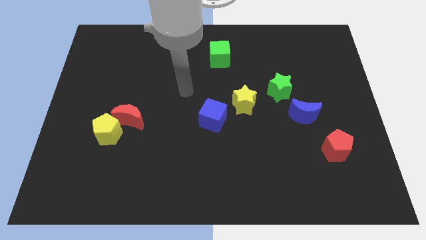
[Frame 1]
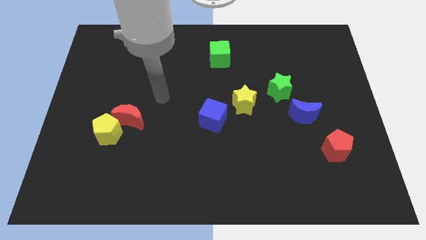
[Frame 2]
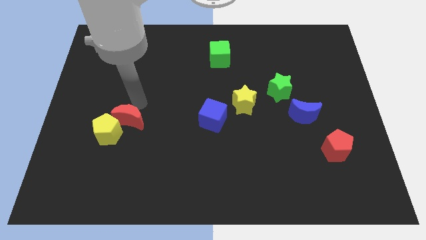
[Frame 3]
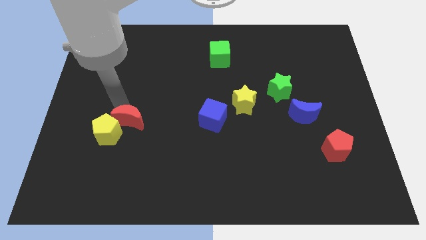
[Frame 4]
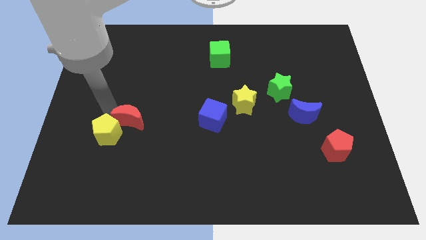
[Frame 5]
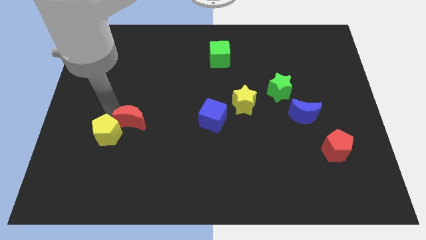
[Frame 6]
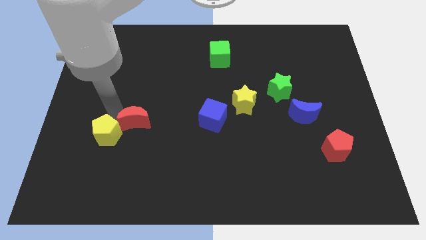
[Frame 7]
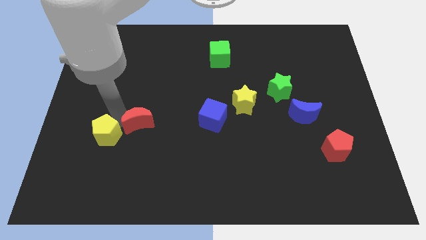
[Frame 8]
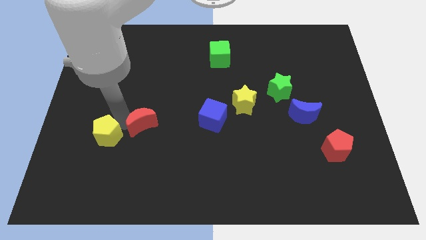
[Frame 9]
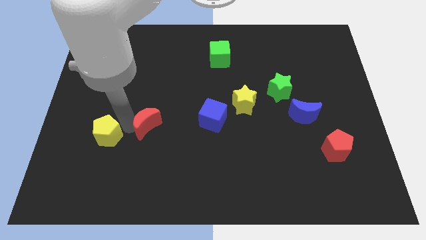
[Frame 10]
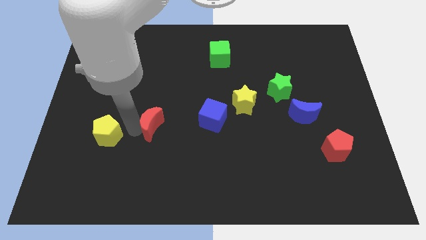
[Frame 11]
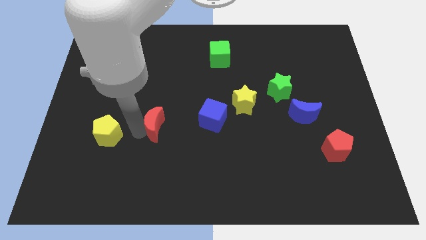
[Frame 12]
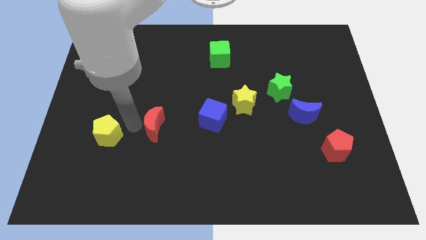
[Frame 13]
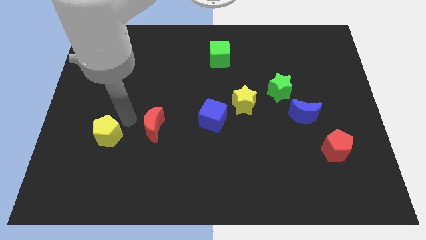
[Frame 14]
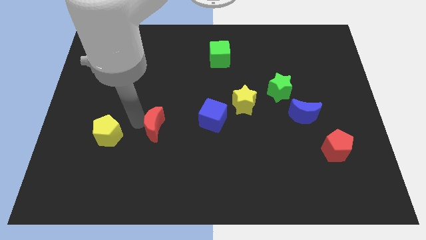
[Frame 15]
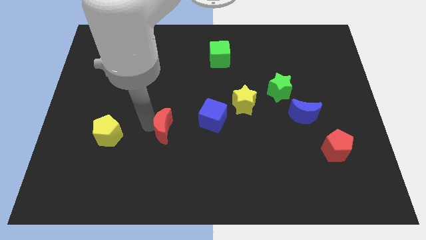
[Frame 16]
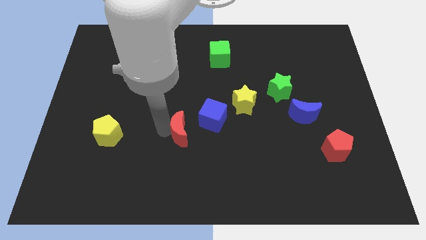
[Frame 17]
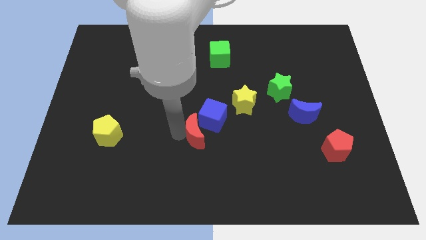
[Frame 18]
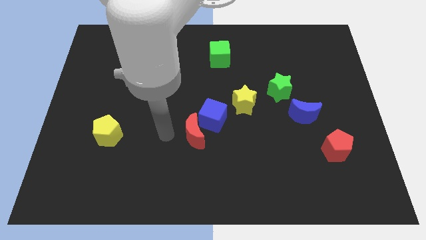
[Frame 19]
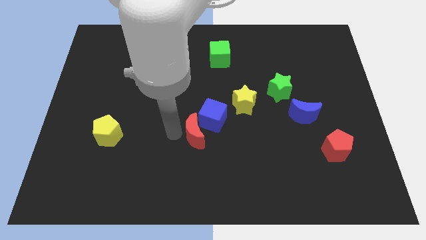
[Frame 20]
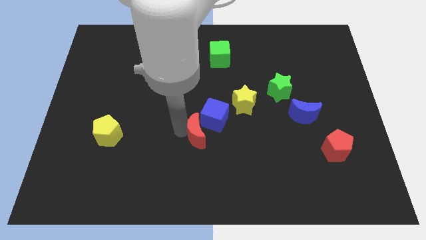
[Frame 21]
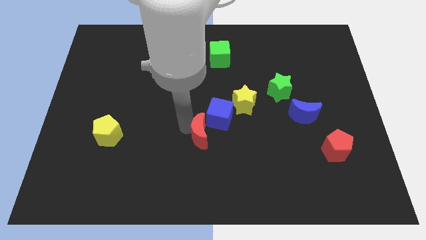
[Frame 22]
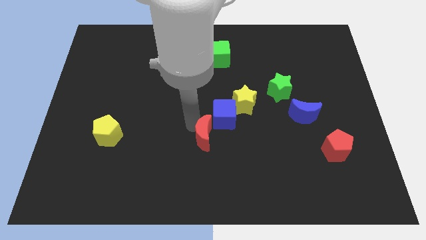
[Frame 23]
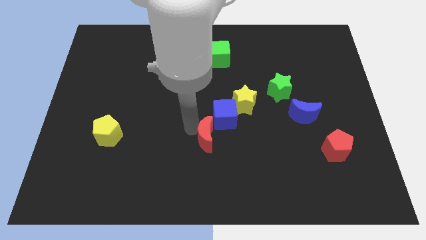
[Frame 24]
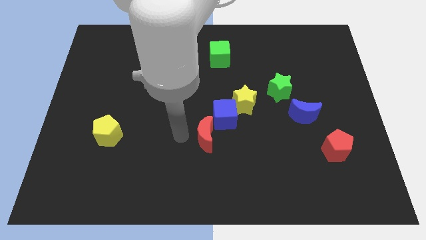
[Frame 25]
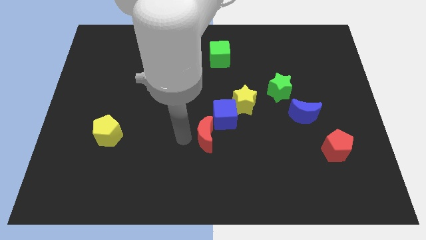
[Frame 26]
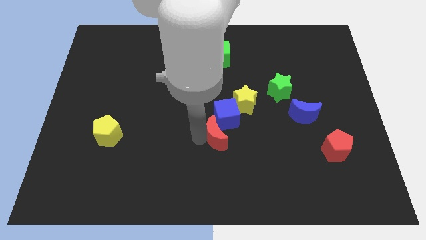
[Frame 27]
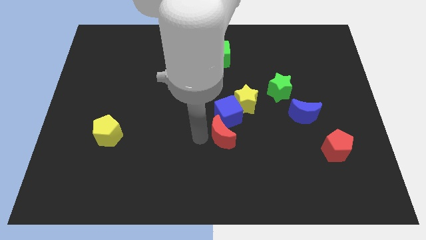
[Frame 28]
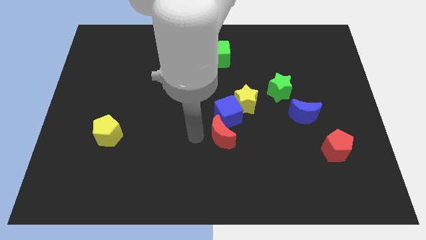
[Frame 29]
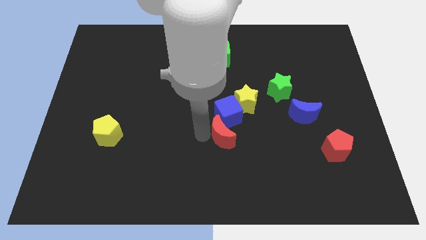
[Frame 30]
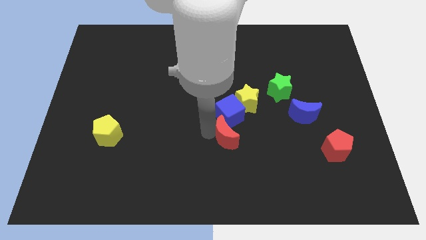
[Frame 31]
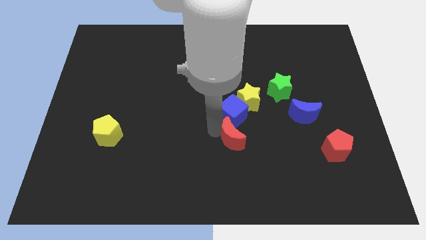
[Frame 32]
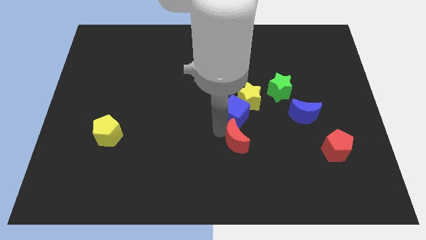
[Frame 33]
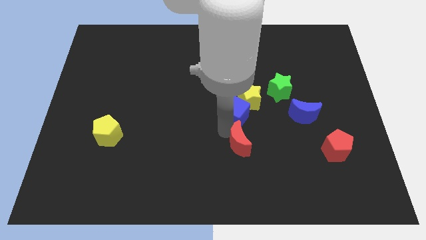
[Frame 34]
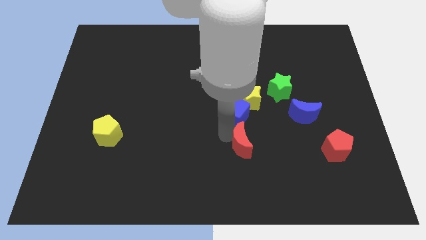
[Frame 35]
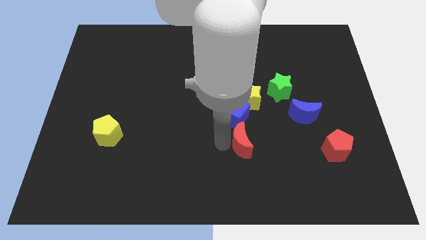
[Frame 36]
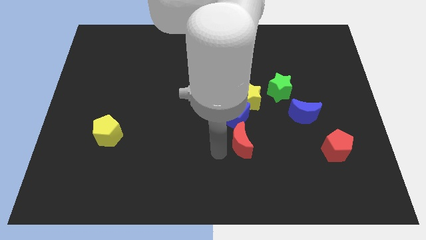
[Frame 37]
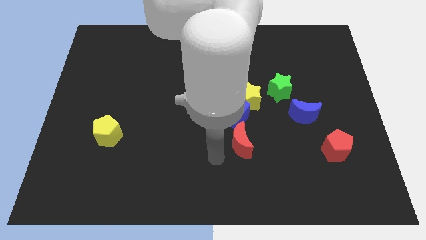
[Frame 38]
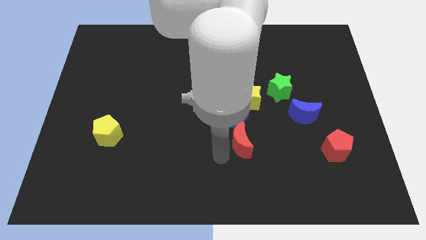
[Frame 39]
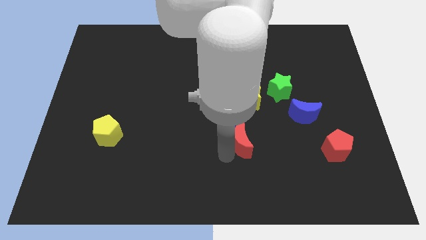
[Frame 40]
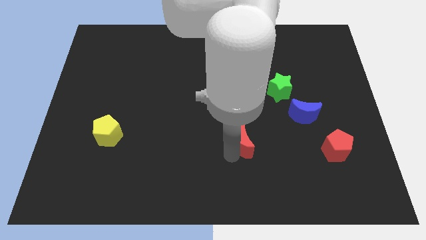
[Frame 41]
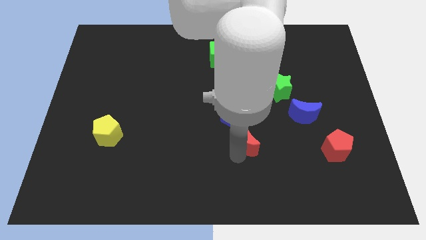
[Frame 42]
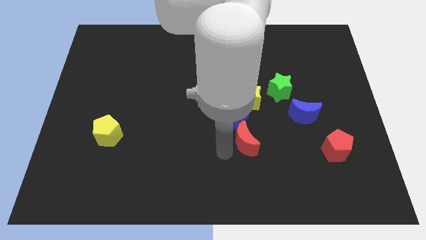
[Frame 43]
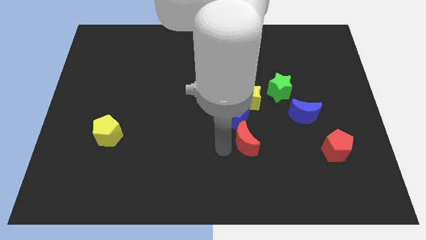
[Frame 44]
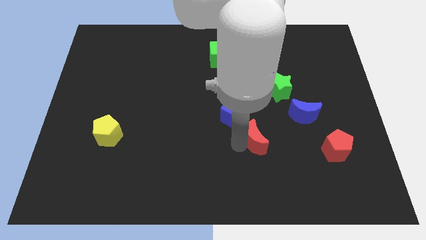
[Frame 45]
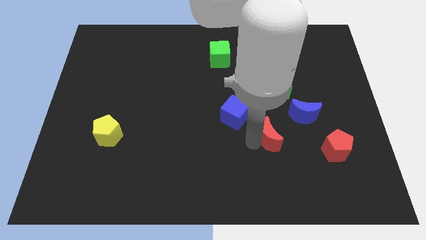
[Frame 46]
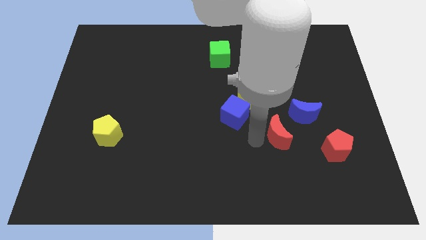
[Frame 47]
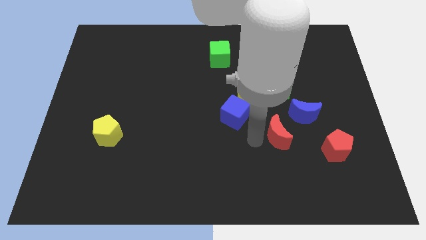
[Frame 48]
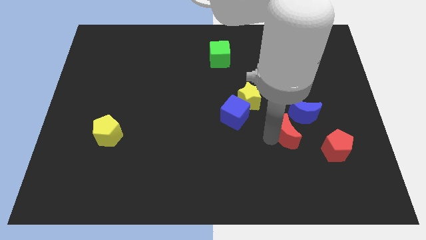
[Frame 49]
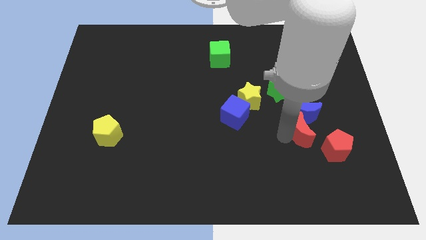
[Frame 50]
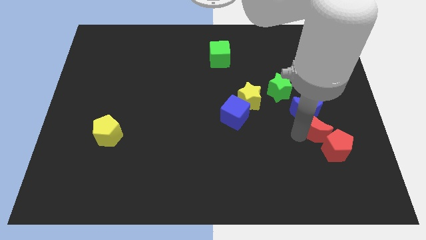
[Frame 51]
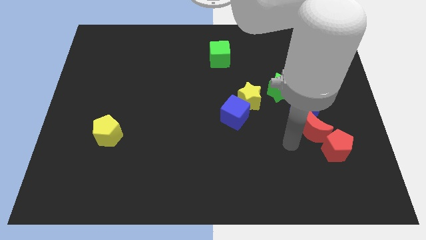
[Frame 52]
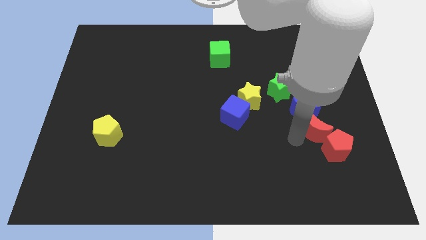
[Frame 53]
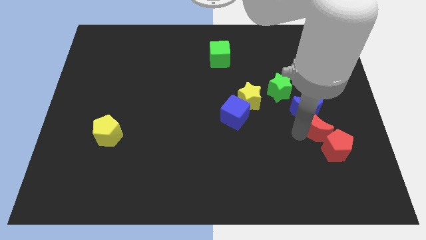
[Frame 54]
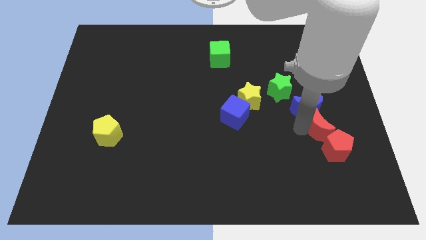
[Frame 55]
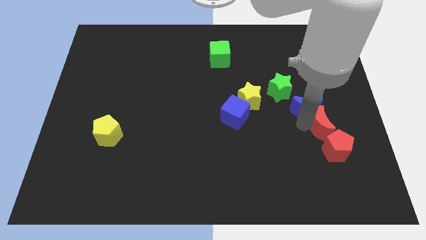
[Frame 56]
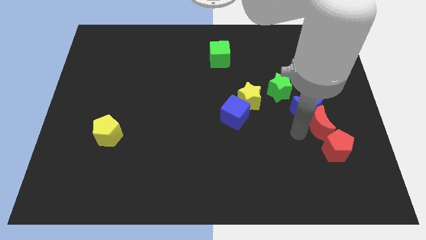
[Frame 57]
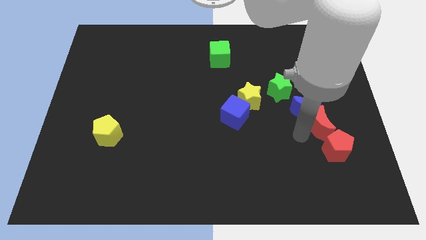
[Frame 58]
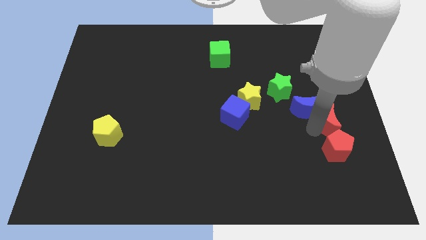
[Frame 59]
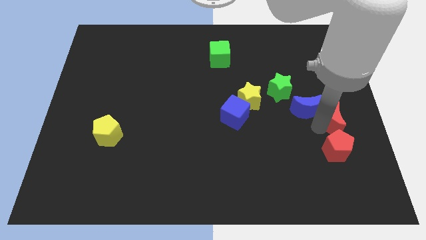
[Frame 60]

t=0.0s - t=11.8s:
move the red moon to the right side
